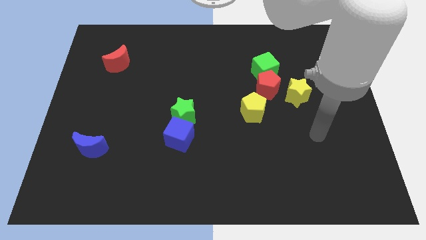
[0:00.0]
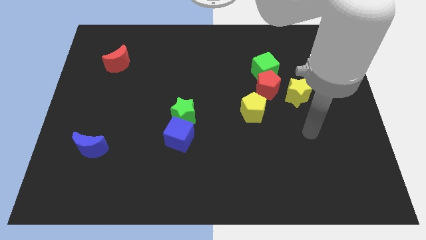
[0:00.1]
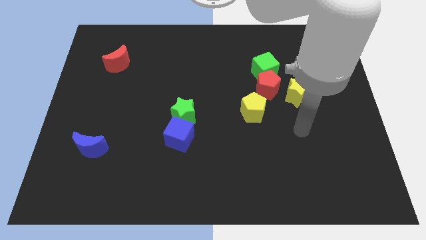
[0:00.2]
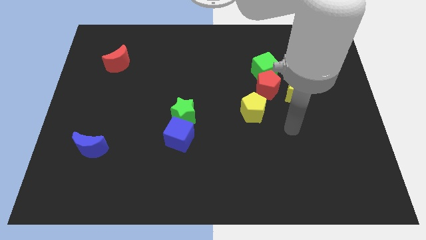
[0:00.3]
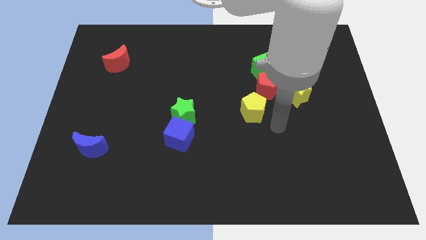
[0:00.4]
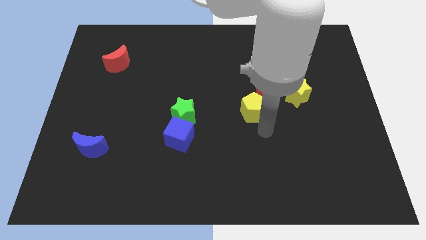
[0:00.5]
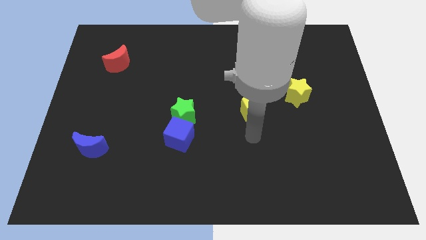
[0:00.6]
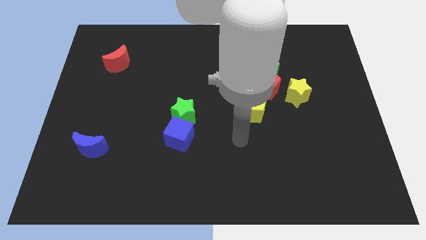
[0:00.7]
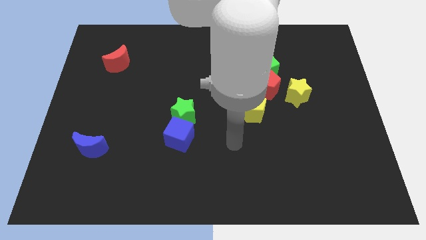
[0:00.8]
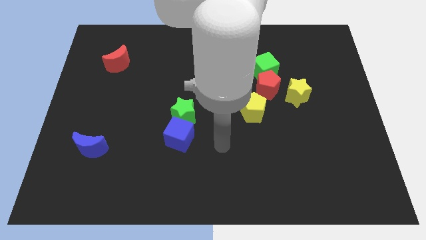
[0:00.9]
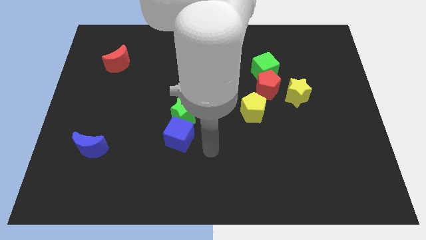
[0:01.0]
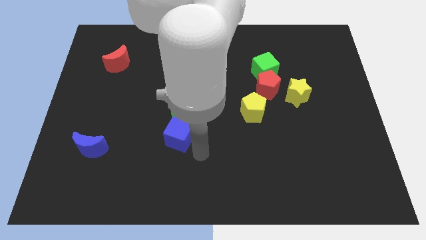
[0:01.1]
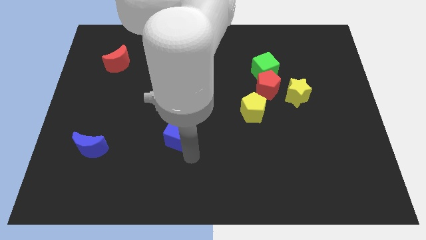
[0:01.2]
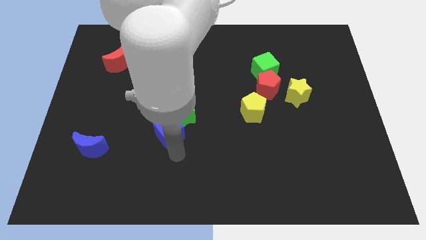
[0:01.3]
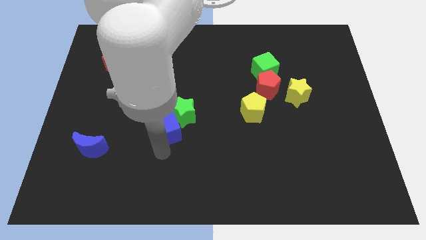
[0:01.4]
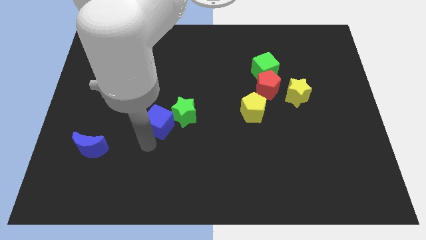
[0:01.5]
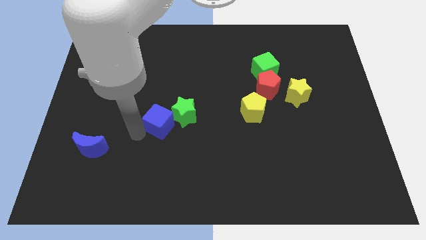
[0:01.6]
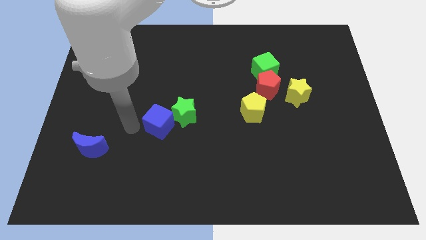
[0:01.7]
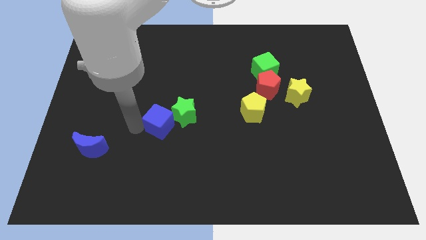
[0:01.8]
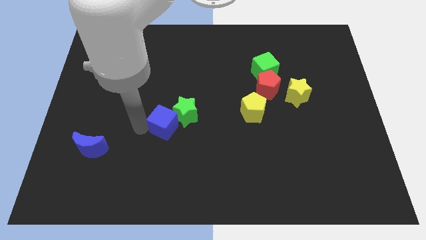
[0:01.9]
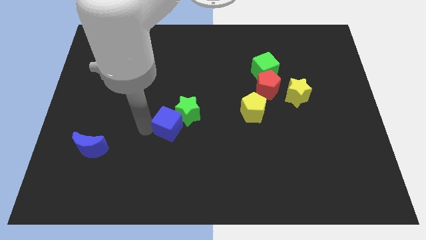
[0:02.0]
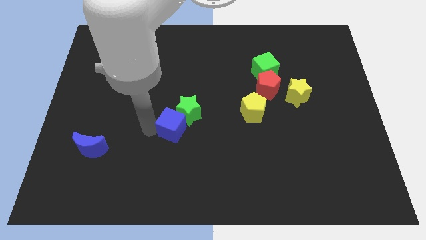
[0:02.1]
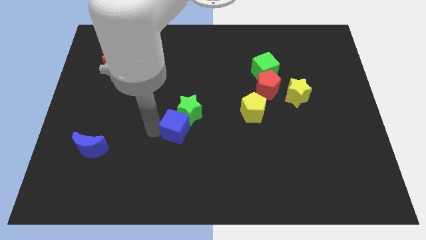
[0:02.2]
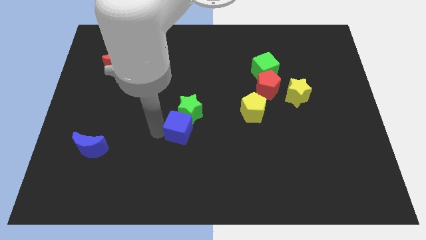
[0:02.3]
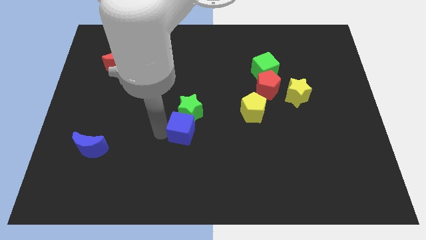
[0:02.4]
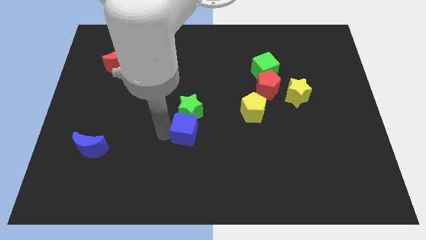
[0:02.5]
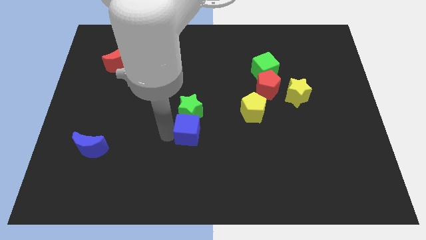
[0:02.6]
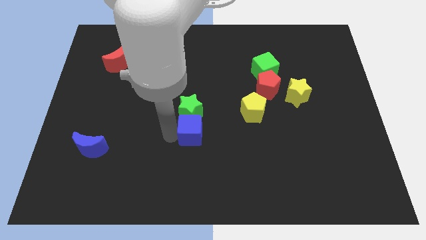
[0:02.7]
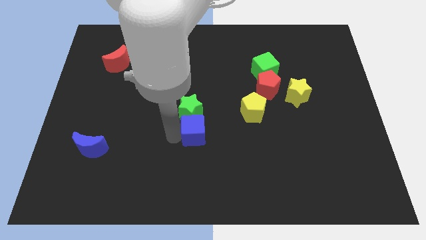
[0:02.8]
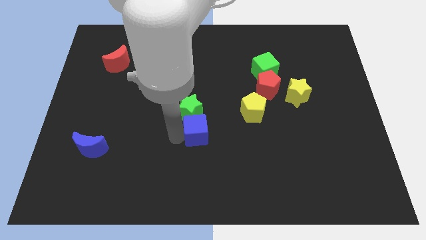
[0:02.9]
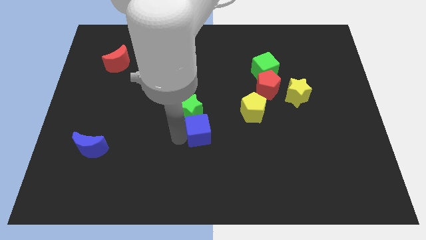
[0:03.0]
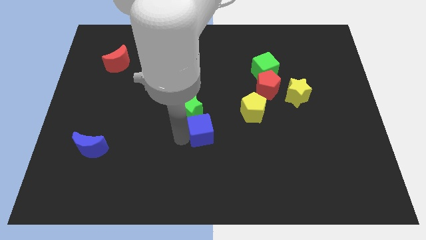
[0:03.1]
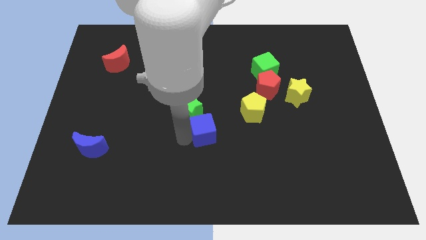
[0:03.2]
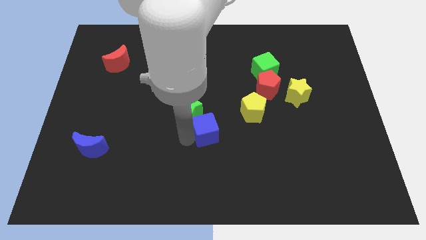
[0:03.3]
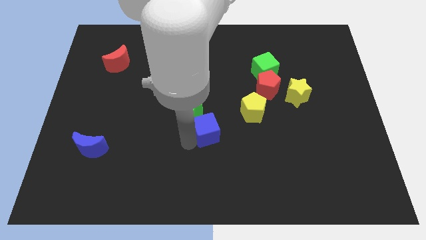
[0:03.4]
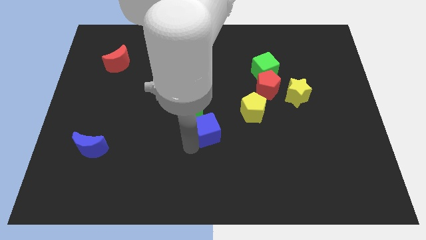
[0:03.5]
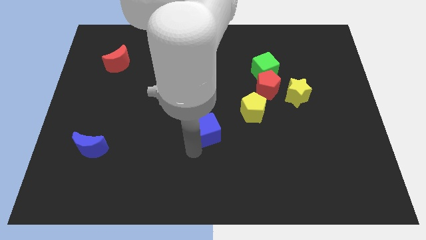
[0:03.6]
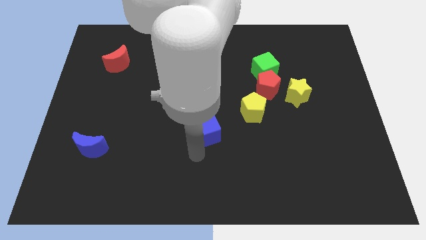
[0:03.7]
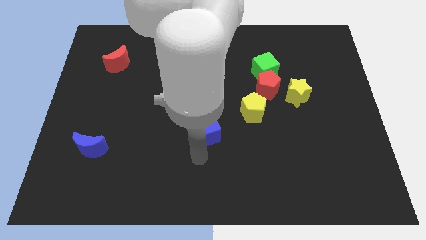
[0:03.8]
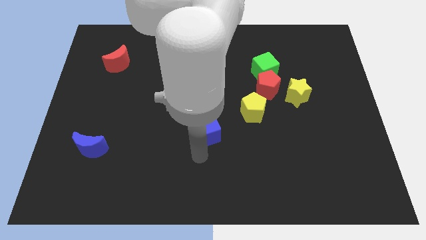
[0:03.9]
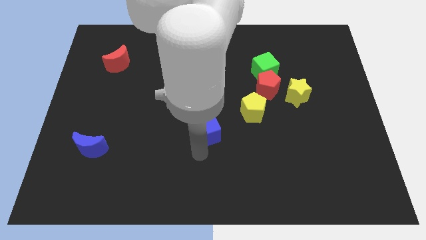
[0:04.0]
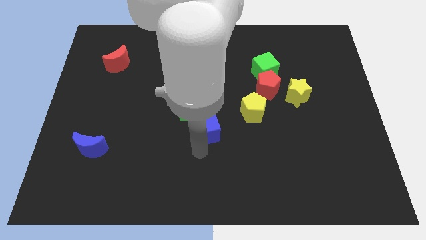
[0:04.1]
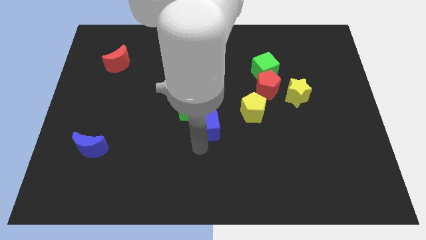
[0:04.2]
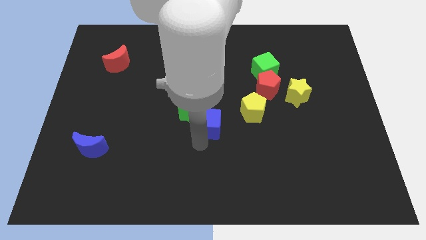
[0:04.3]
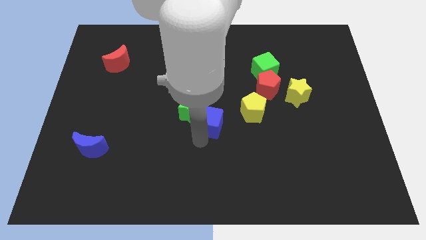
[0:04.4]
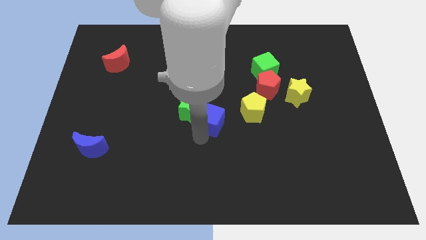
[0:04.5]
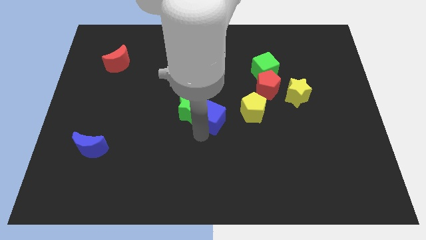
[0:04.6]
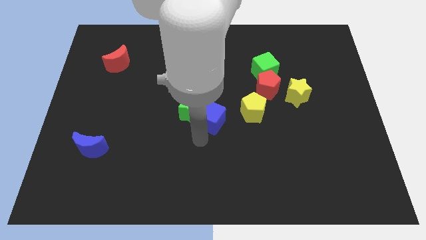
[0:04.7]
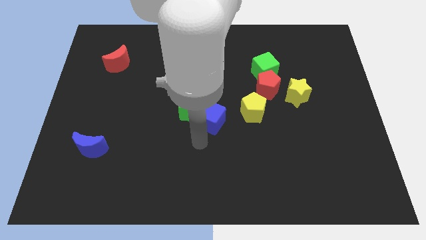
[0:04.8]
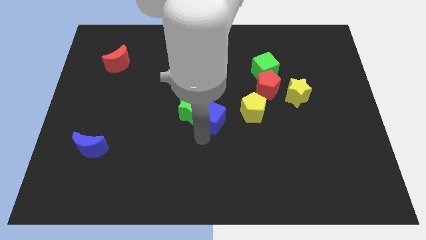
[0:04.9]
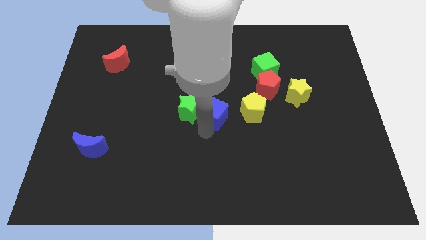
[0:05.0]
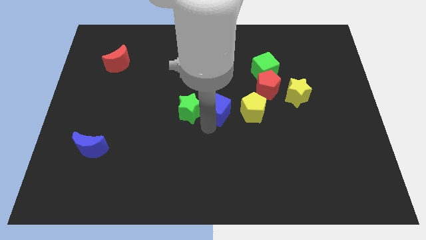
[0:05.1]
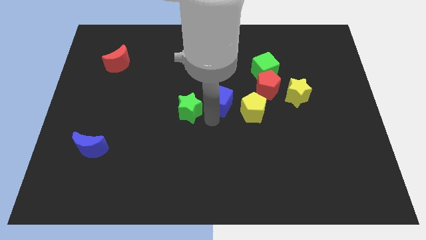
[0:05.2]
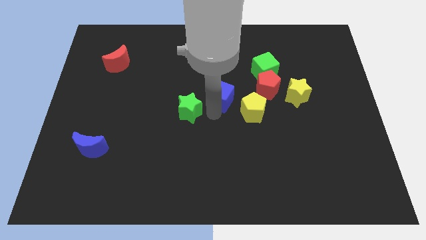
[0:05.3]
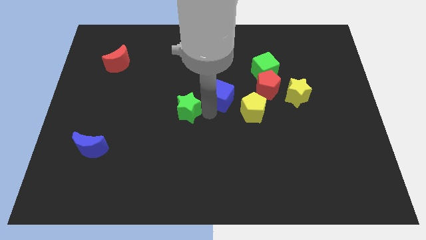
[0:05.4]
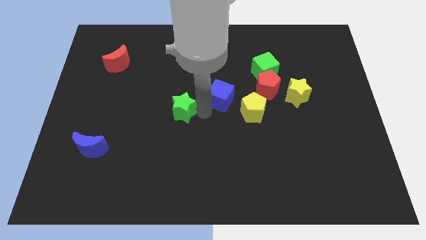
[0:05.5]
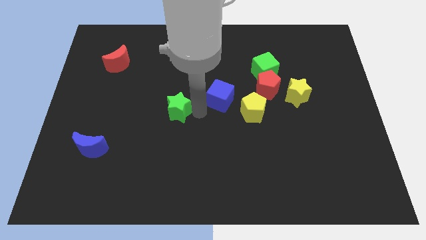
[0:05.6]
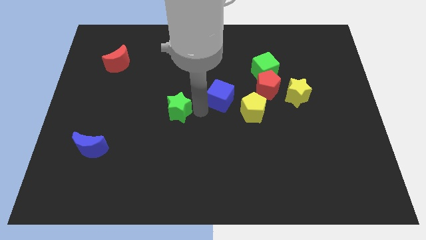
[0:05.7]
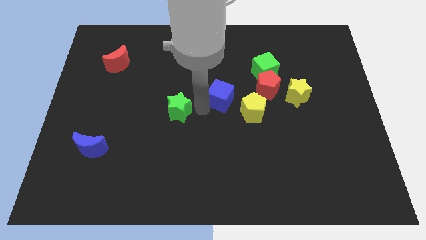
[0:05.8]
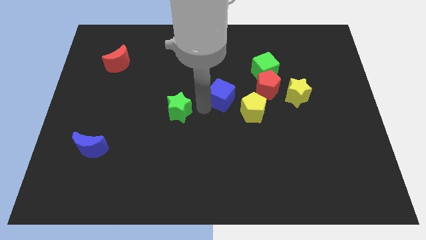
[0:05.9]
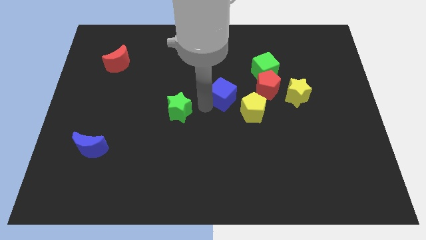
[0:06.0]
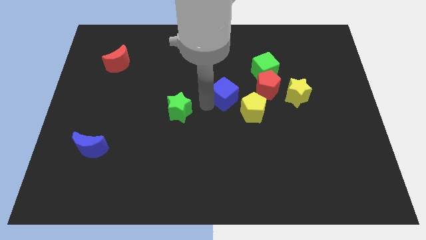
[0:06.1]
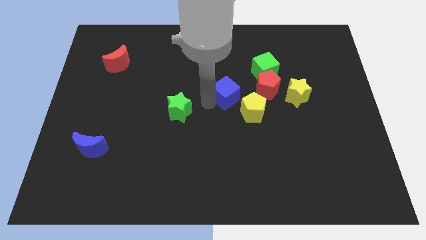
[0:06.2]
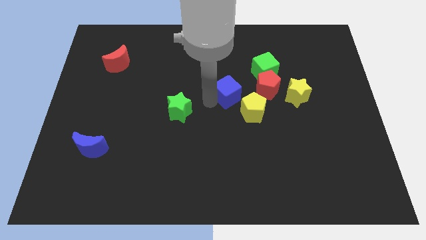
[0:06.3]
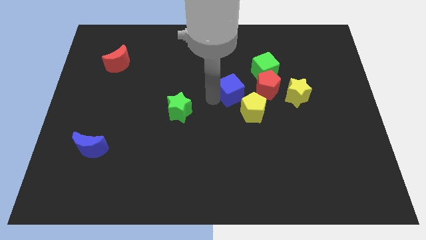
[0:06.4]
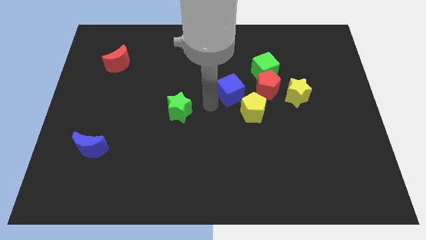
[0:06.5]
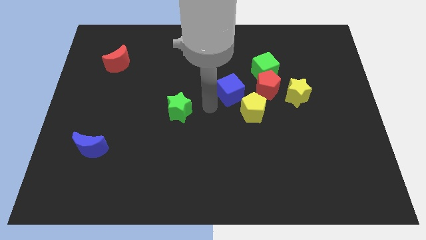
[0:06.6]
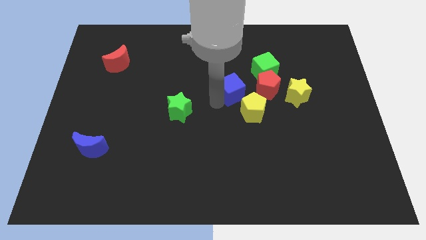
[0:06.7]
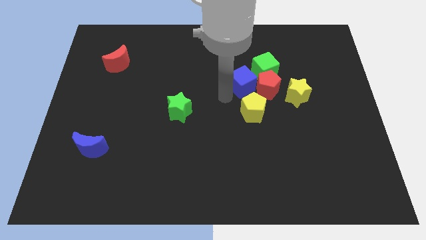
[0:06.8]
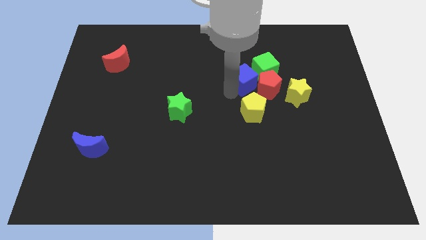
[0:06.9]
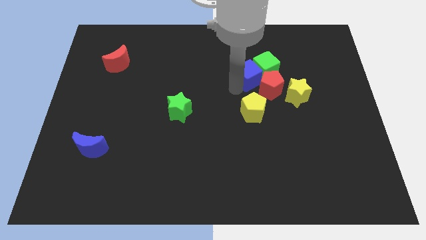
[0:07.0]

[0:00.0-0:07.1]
slide the blue cube to the green cube

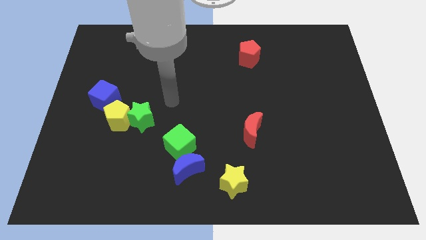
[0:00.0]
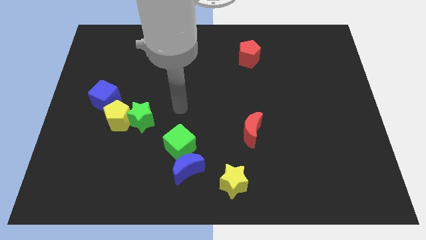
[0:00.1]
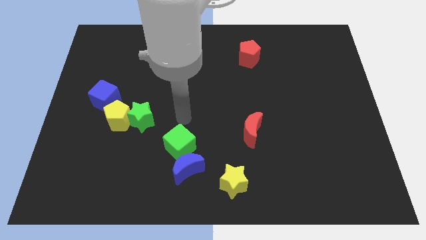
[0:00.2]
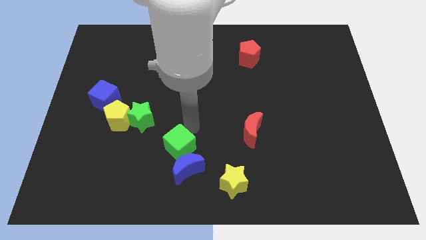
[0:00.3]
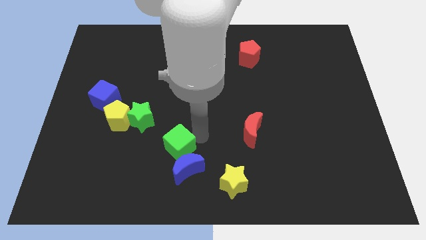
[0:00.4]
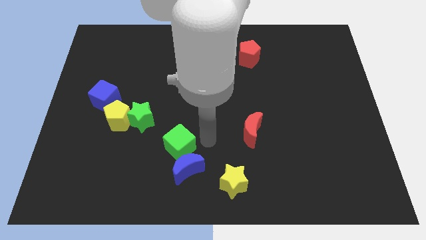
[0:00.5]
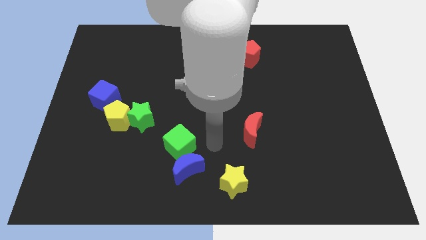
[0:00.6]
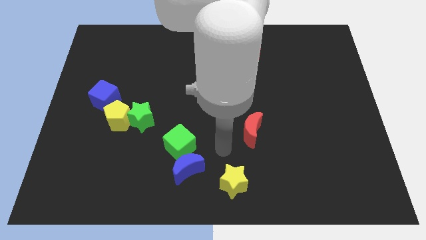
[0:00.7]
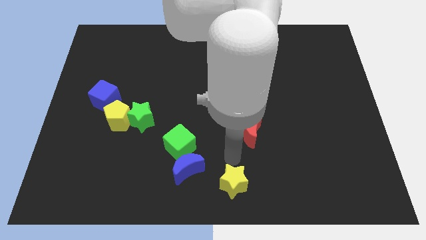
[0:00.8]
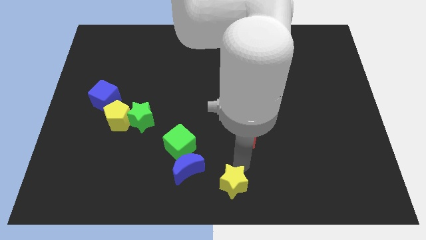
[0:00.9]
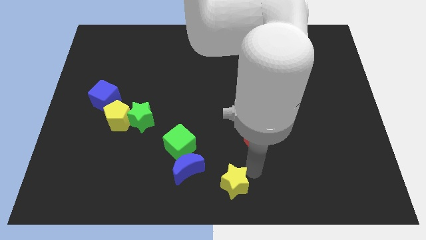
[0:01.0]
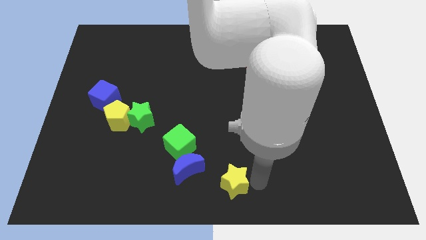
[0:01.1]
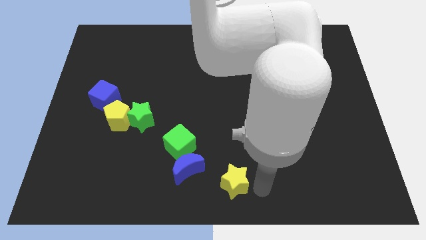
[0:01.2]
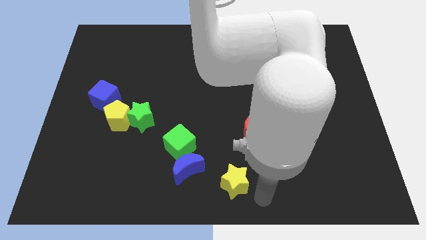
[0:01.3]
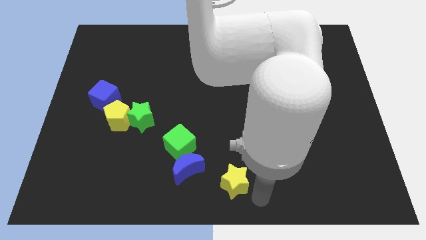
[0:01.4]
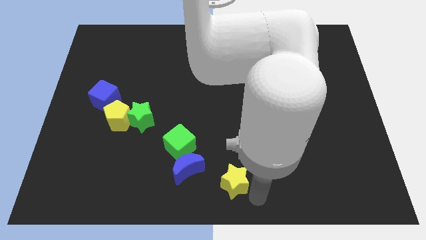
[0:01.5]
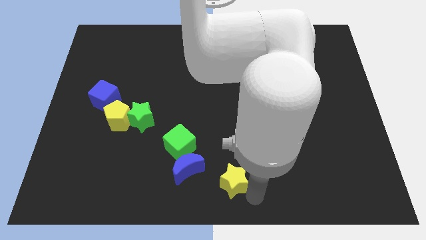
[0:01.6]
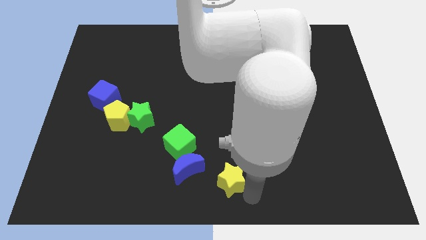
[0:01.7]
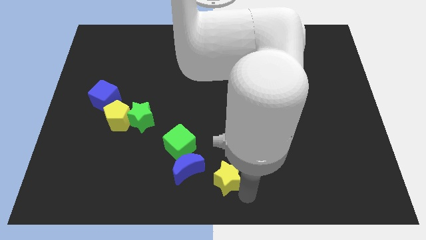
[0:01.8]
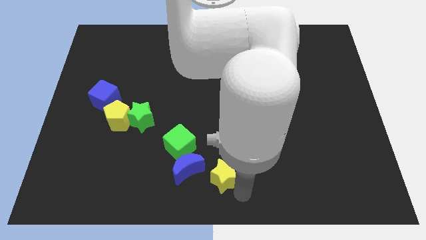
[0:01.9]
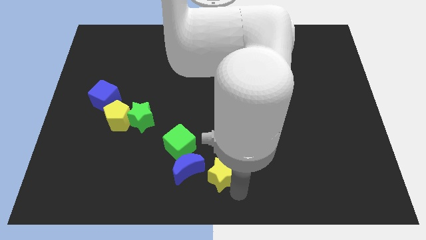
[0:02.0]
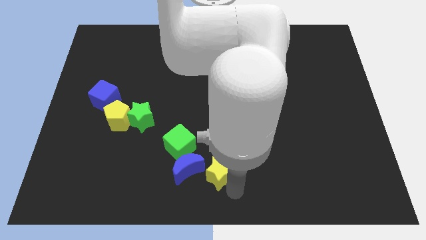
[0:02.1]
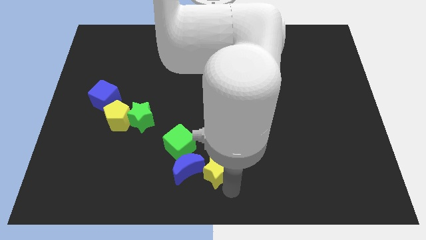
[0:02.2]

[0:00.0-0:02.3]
push the yellow star next to the blue moon
